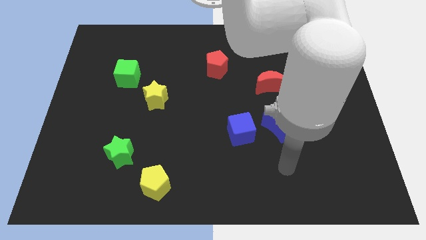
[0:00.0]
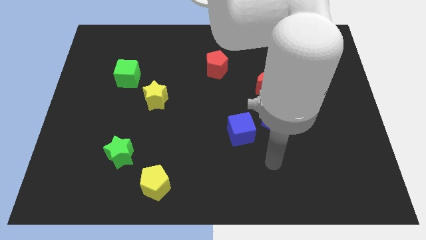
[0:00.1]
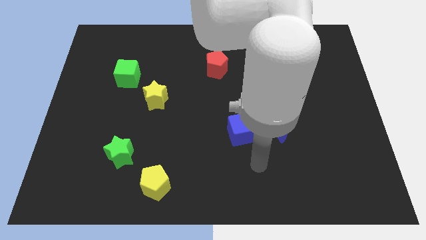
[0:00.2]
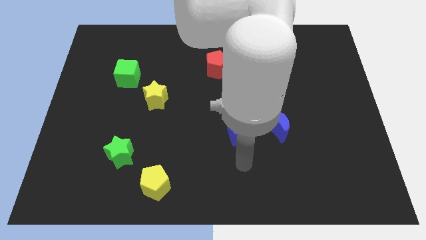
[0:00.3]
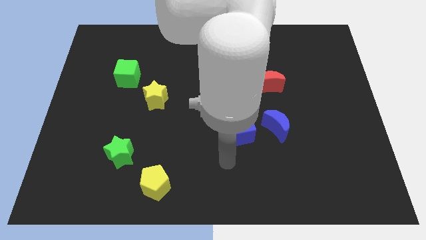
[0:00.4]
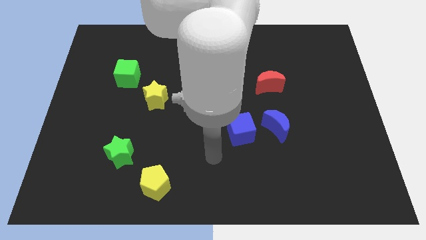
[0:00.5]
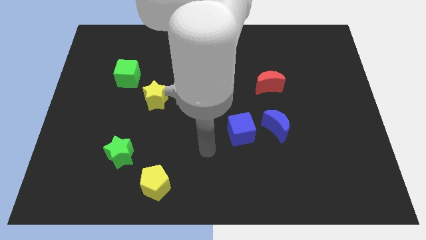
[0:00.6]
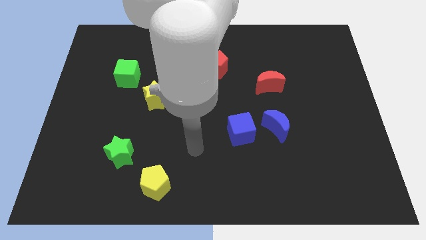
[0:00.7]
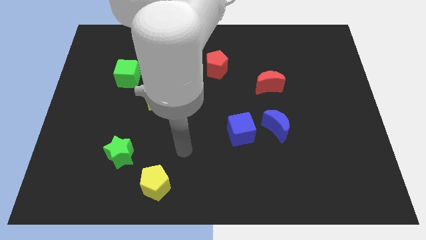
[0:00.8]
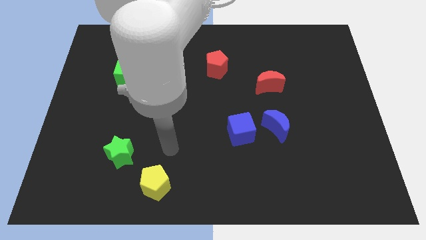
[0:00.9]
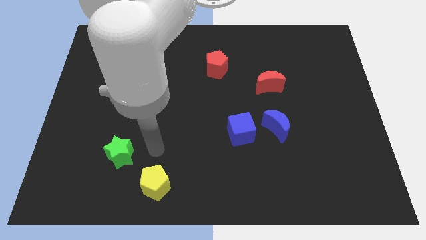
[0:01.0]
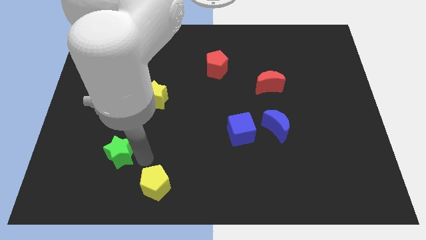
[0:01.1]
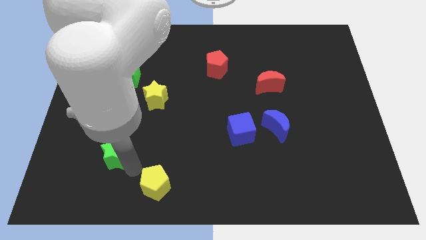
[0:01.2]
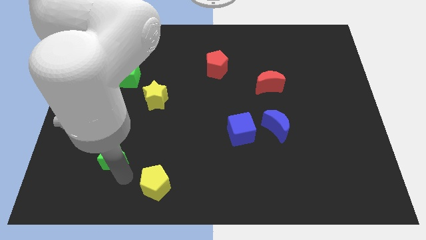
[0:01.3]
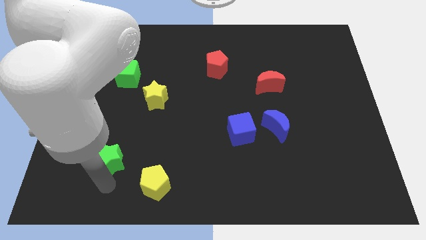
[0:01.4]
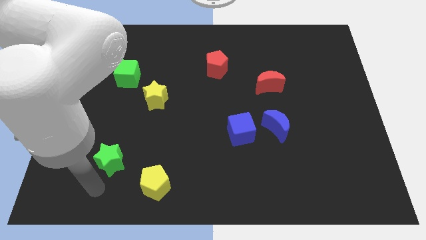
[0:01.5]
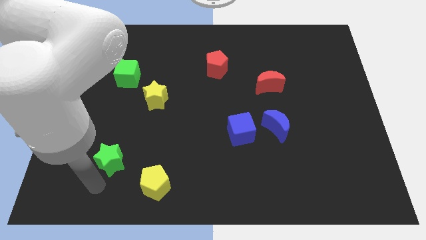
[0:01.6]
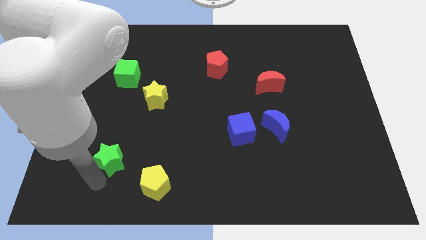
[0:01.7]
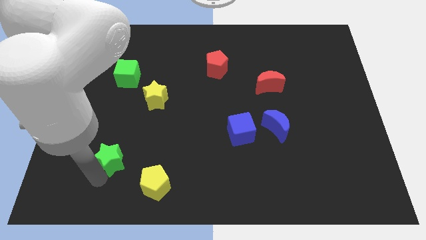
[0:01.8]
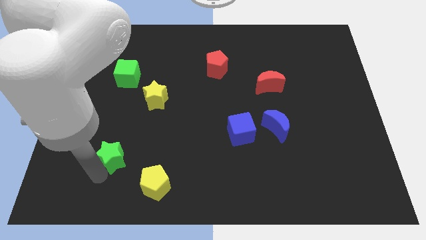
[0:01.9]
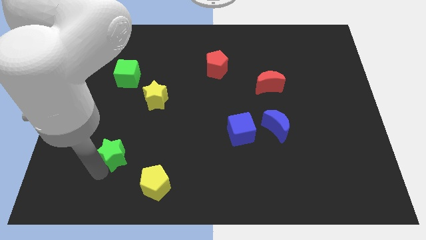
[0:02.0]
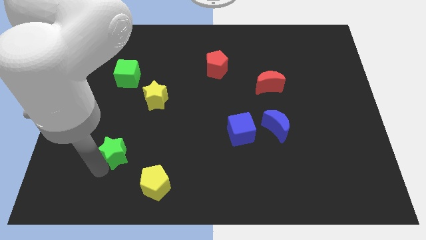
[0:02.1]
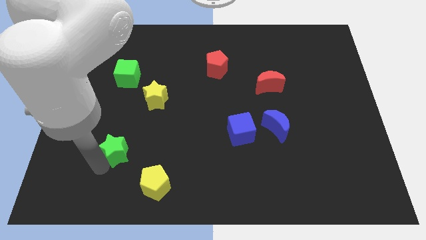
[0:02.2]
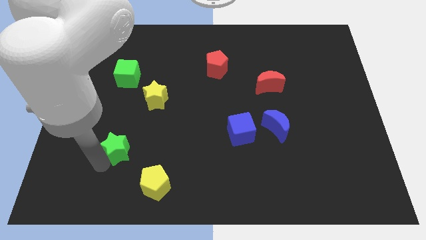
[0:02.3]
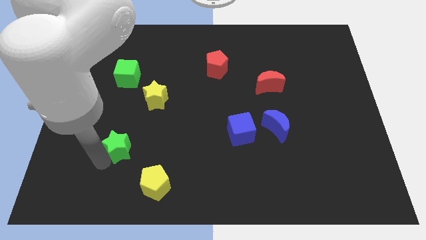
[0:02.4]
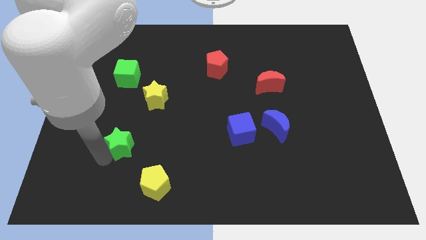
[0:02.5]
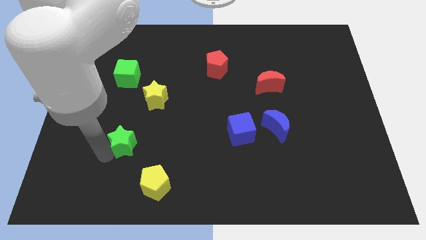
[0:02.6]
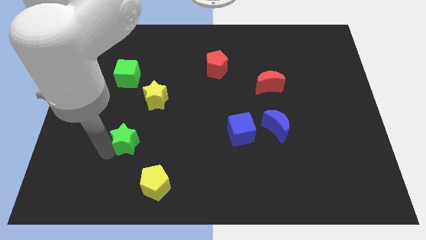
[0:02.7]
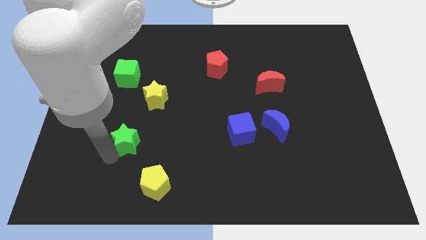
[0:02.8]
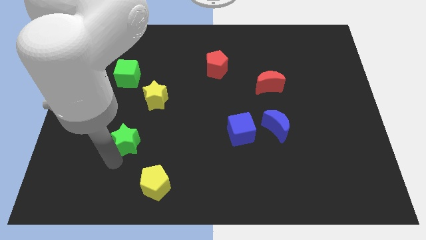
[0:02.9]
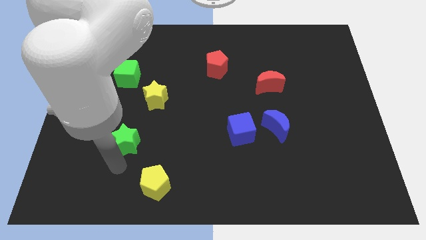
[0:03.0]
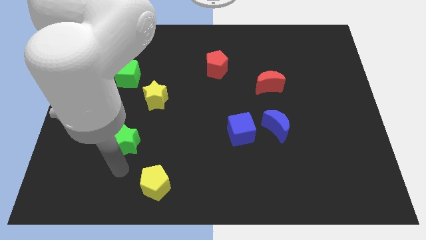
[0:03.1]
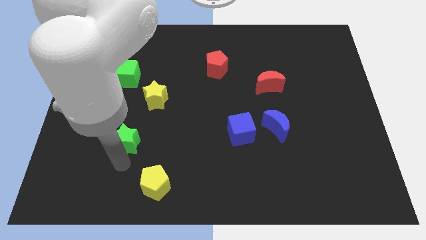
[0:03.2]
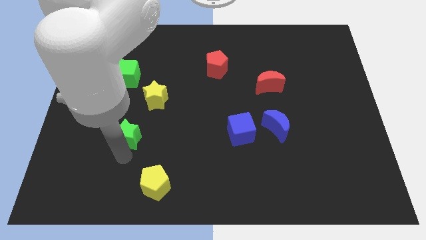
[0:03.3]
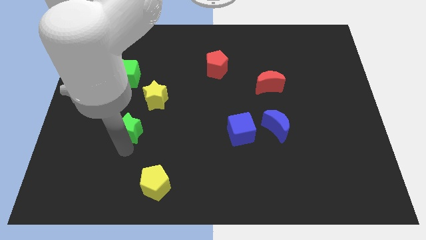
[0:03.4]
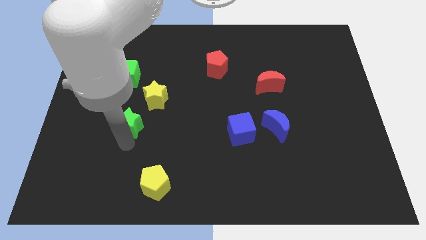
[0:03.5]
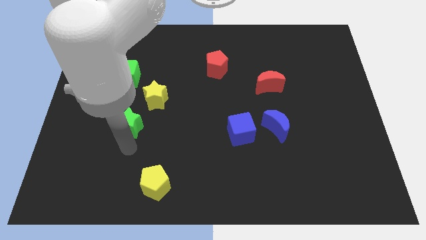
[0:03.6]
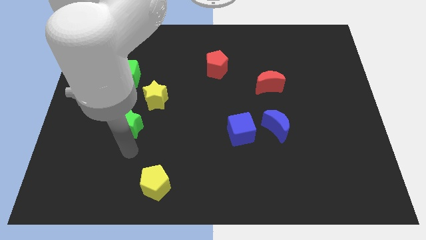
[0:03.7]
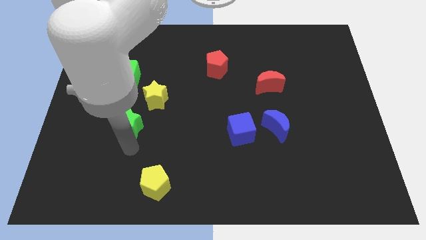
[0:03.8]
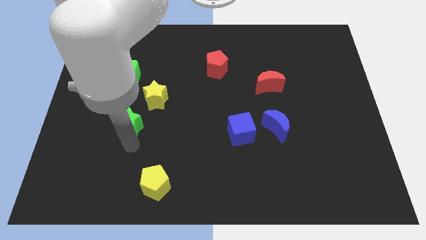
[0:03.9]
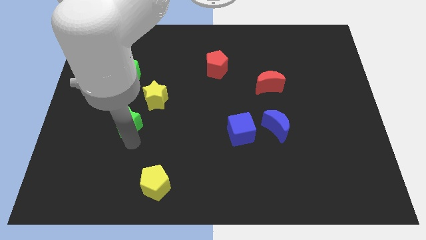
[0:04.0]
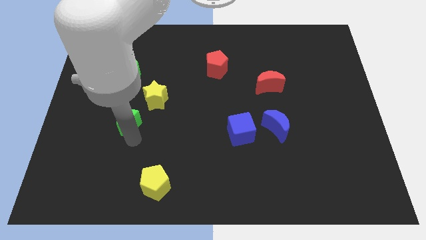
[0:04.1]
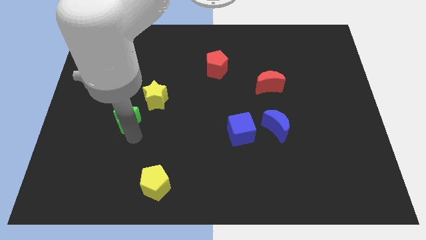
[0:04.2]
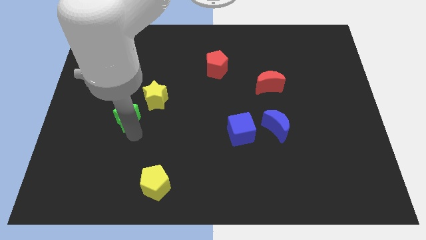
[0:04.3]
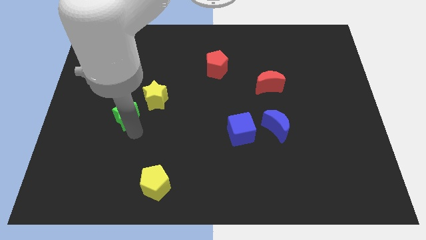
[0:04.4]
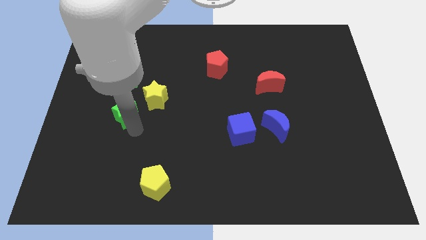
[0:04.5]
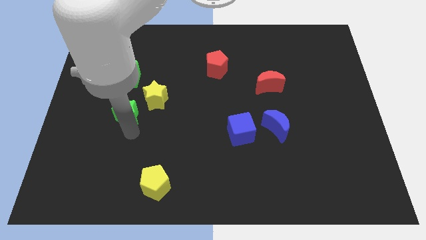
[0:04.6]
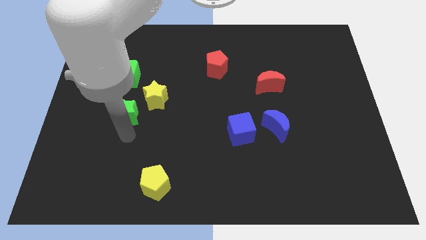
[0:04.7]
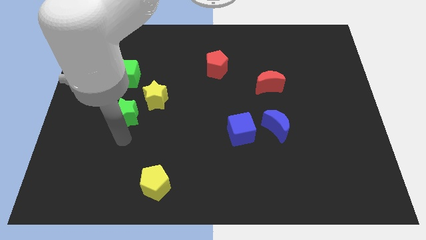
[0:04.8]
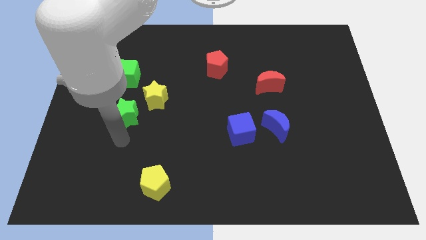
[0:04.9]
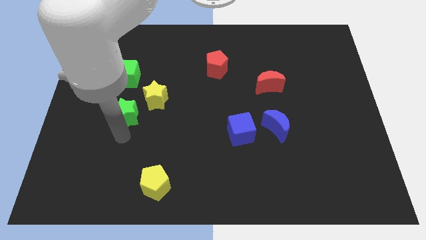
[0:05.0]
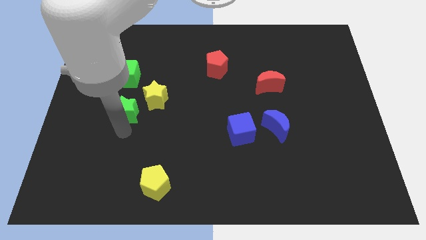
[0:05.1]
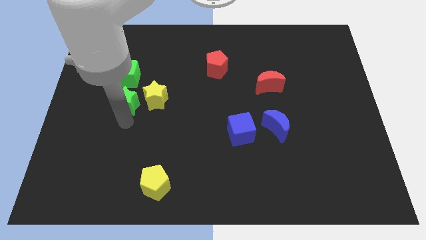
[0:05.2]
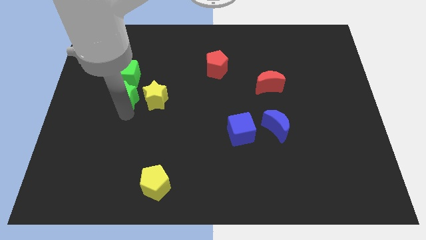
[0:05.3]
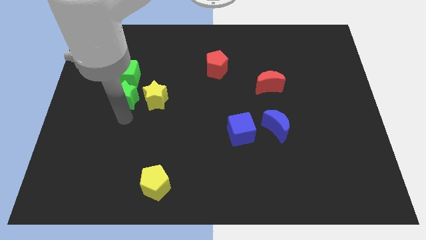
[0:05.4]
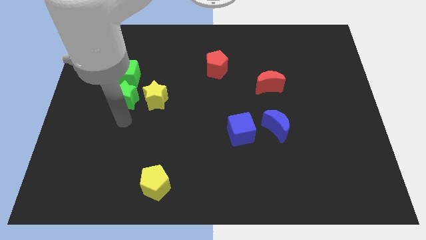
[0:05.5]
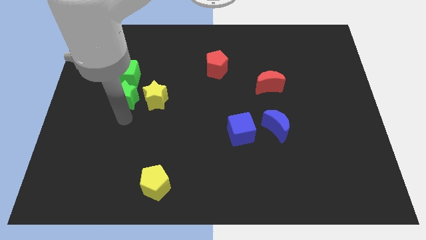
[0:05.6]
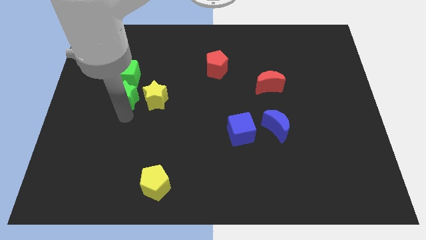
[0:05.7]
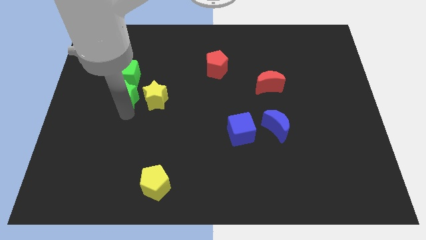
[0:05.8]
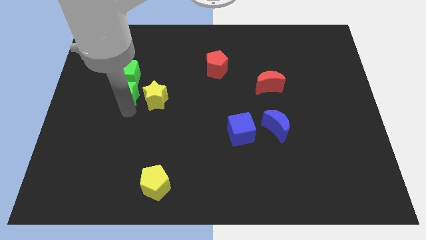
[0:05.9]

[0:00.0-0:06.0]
move the green star next to the green cube

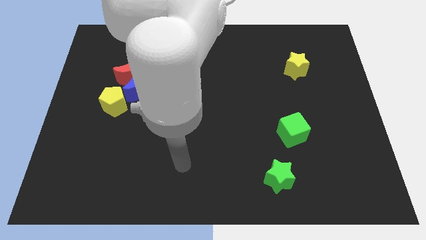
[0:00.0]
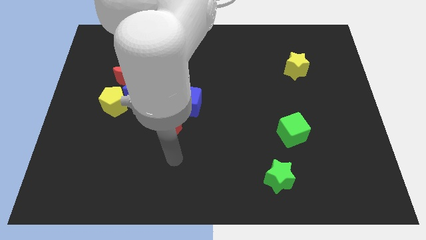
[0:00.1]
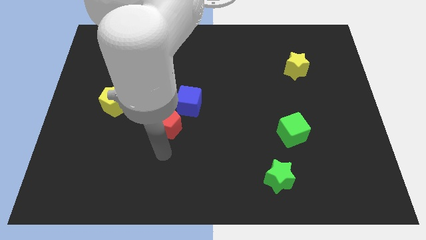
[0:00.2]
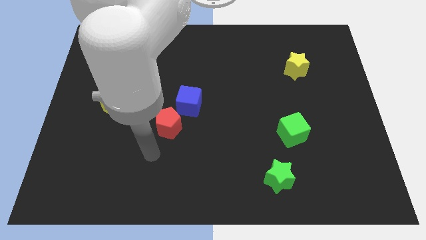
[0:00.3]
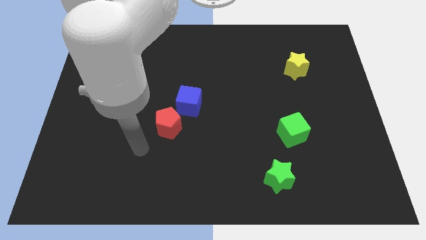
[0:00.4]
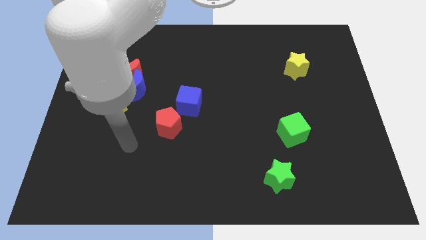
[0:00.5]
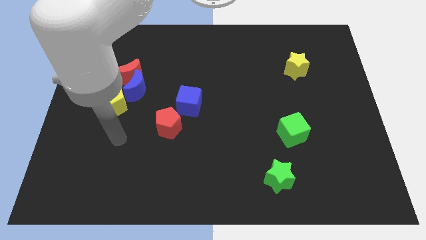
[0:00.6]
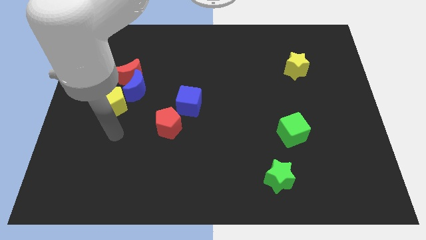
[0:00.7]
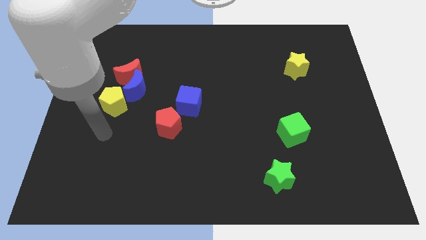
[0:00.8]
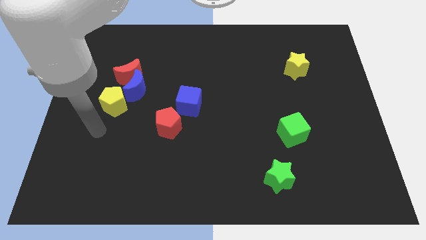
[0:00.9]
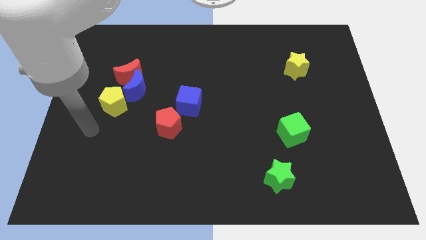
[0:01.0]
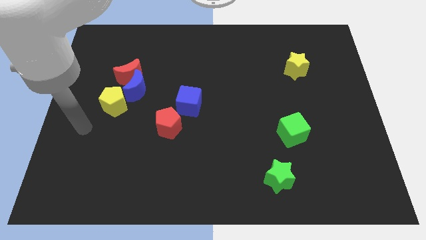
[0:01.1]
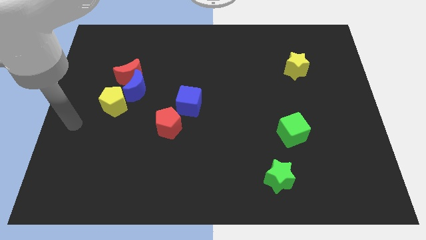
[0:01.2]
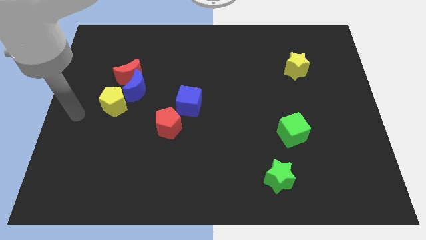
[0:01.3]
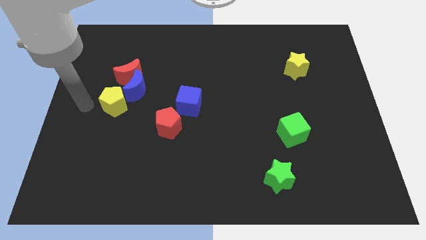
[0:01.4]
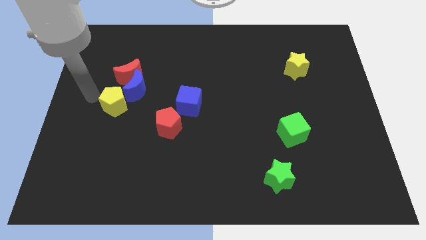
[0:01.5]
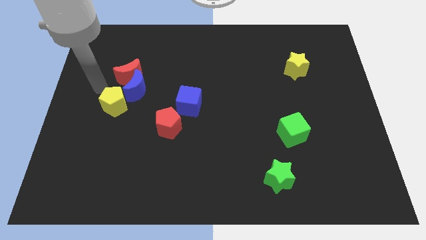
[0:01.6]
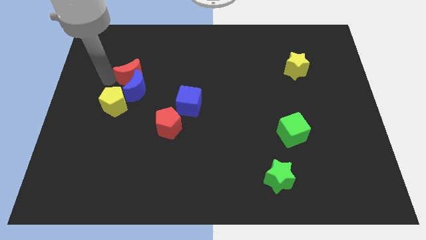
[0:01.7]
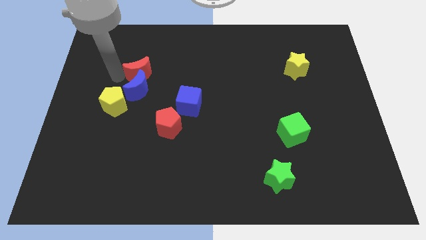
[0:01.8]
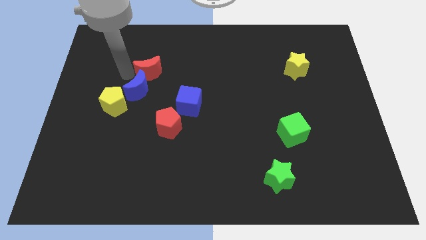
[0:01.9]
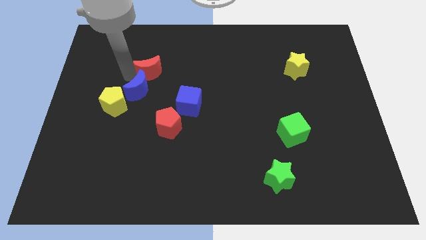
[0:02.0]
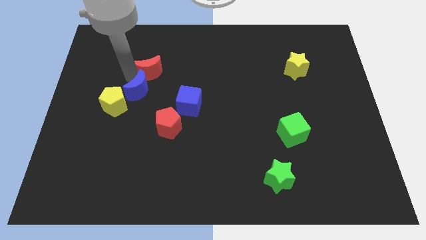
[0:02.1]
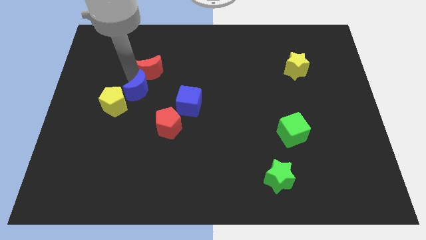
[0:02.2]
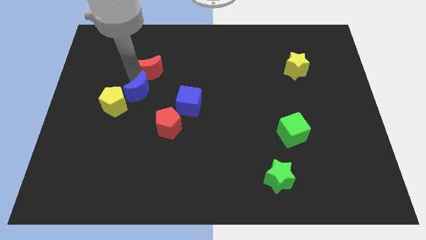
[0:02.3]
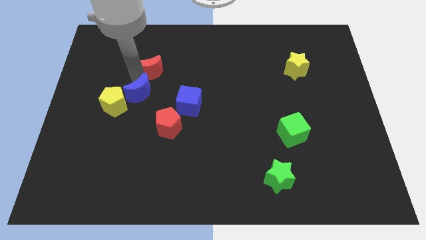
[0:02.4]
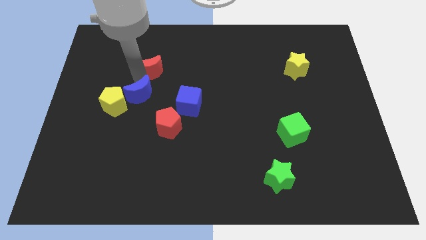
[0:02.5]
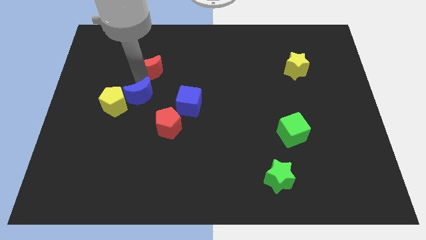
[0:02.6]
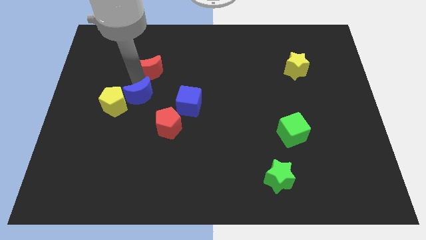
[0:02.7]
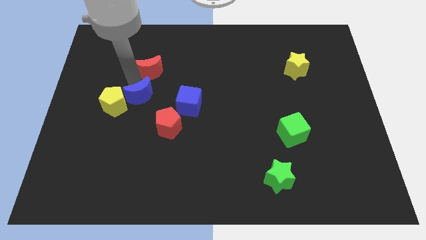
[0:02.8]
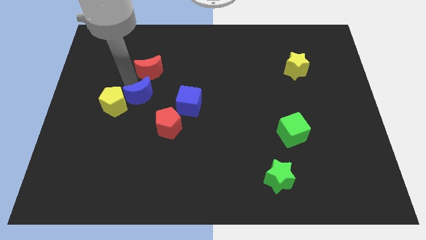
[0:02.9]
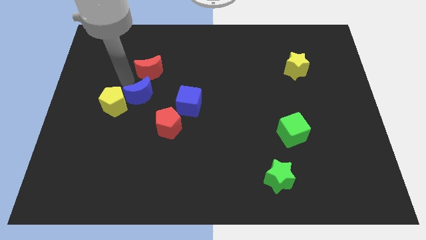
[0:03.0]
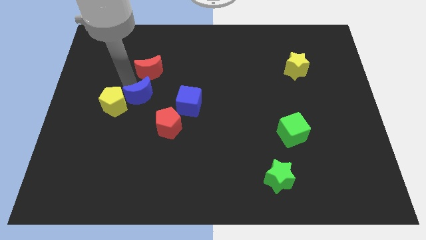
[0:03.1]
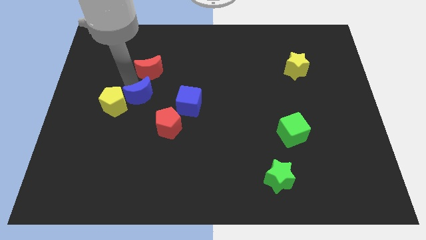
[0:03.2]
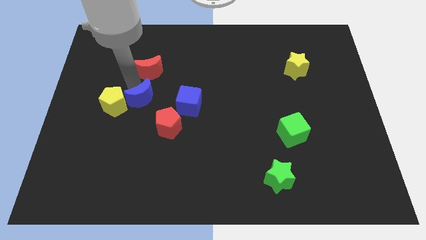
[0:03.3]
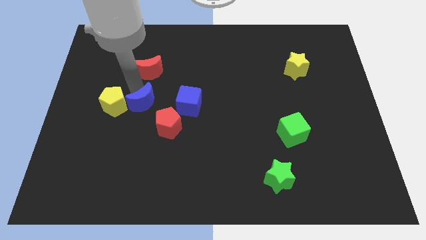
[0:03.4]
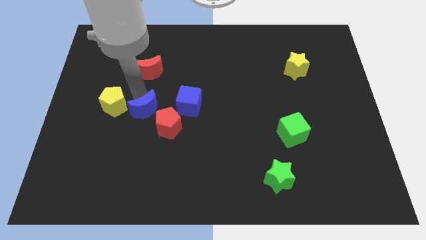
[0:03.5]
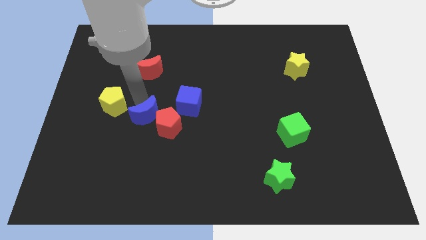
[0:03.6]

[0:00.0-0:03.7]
slide the blue moon to the red pentagon
